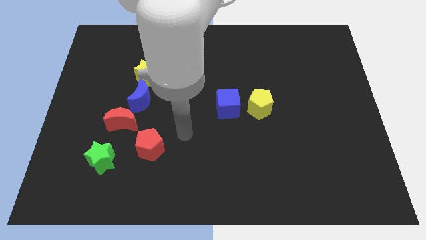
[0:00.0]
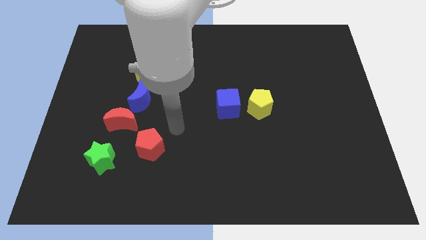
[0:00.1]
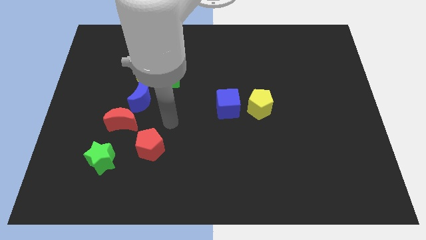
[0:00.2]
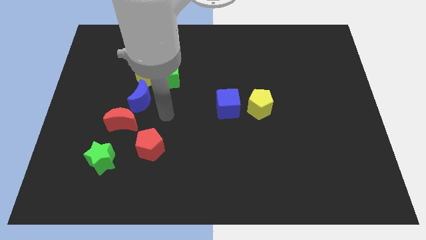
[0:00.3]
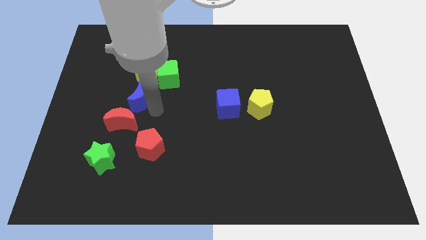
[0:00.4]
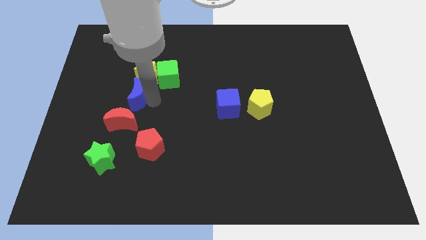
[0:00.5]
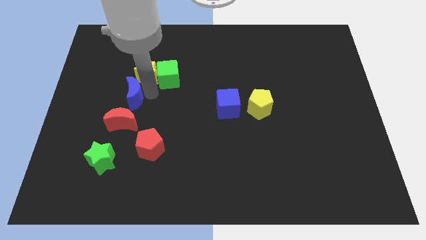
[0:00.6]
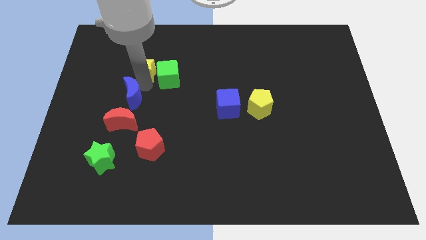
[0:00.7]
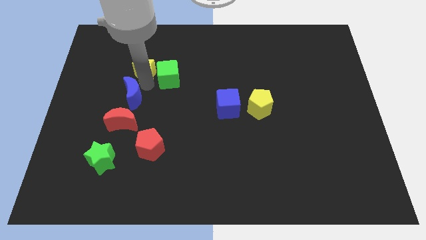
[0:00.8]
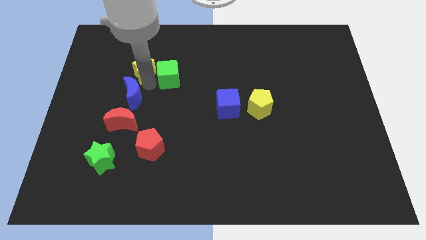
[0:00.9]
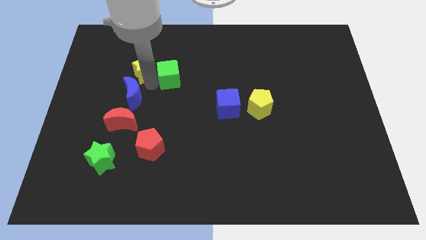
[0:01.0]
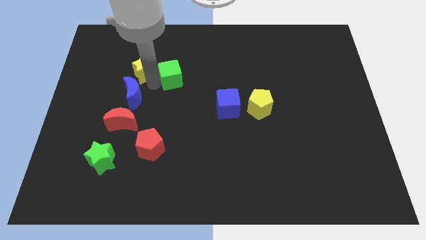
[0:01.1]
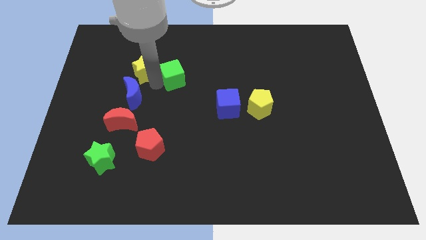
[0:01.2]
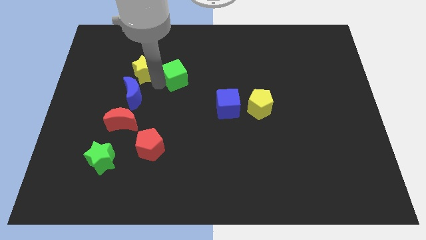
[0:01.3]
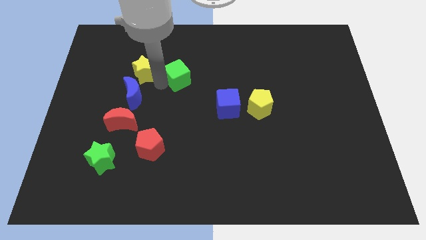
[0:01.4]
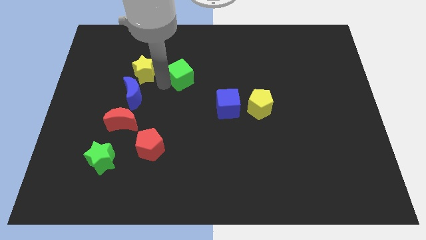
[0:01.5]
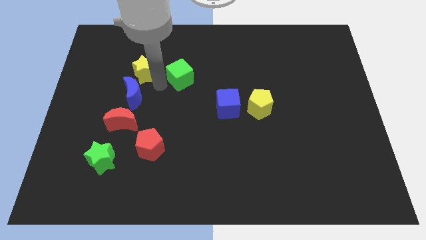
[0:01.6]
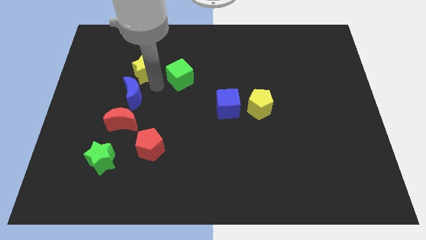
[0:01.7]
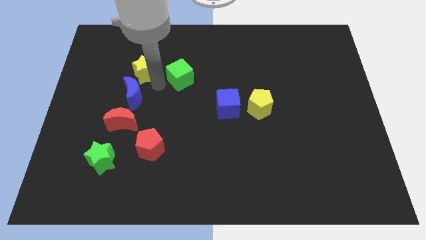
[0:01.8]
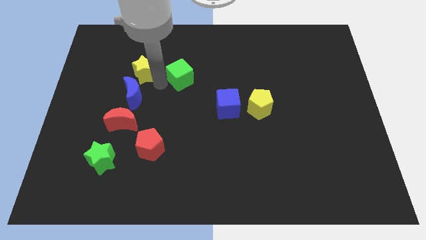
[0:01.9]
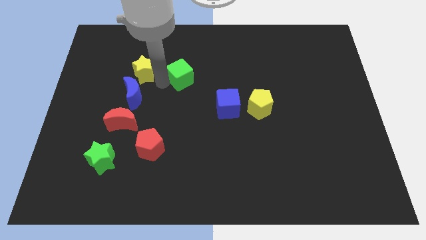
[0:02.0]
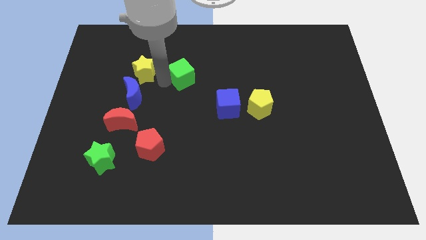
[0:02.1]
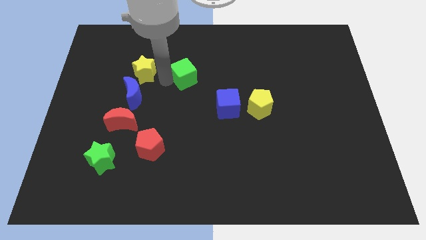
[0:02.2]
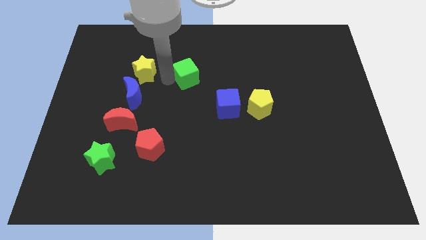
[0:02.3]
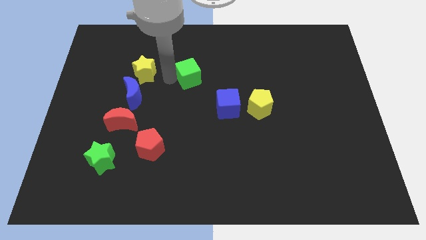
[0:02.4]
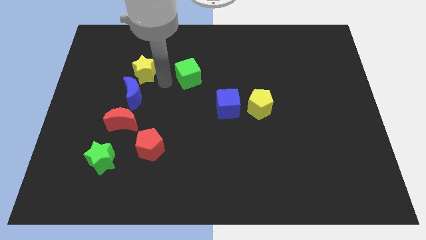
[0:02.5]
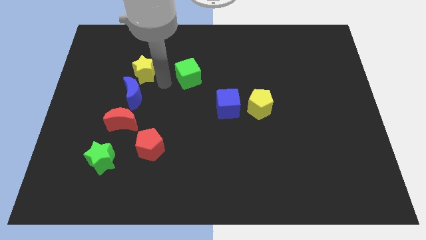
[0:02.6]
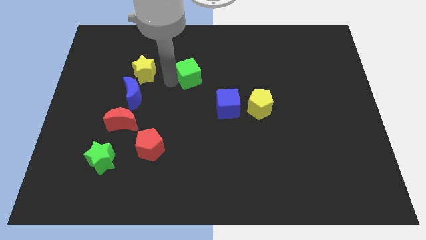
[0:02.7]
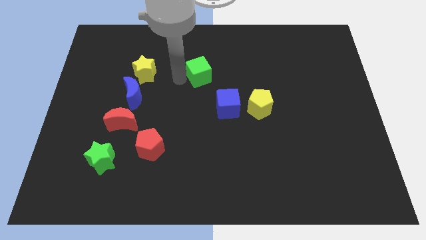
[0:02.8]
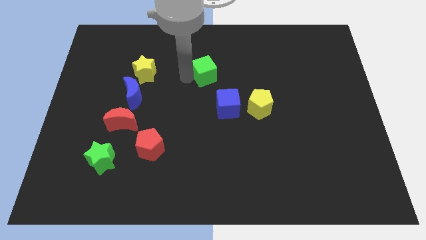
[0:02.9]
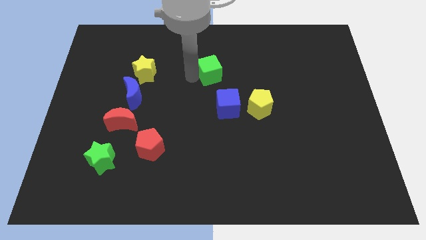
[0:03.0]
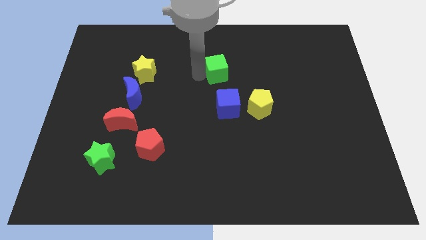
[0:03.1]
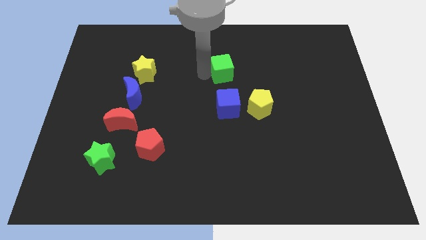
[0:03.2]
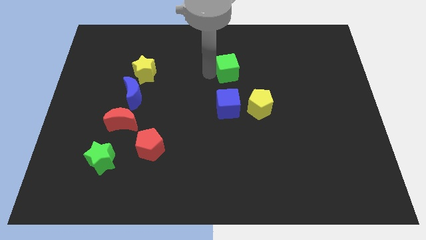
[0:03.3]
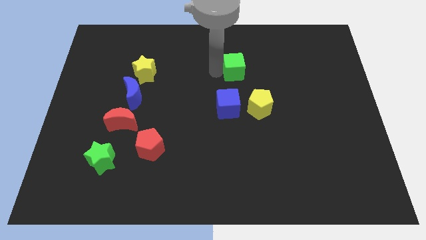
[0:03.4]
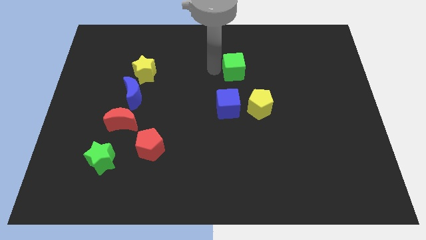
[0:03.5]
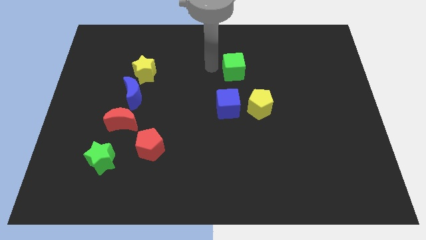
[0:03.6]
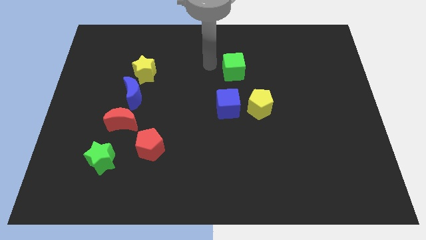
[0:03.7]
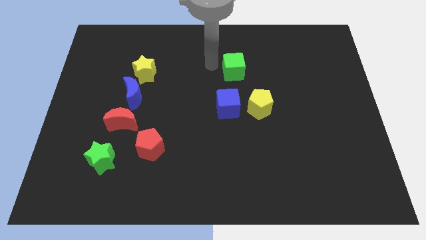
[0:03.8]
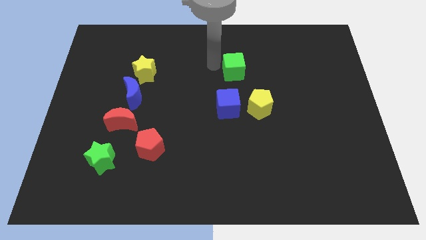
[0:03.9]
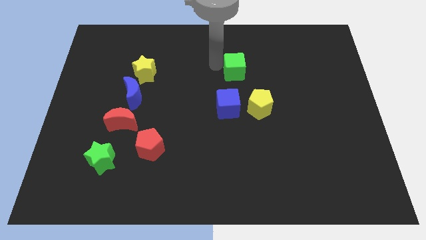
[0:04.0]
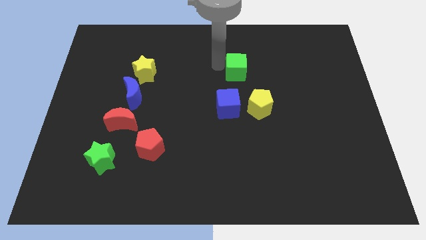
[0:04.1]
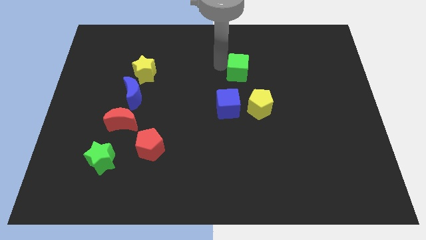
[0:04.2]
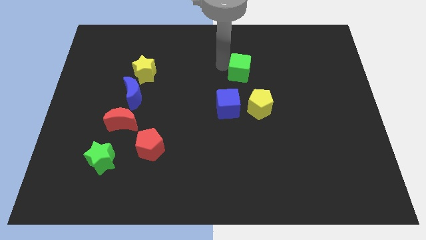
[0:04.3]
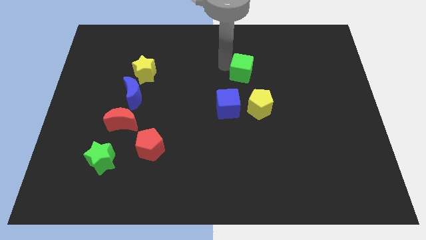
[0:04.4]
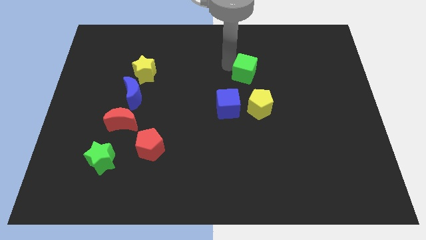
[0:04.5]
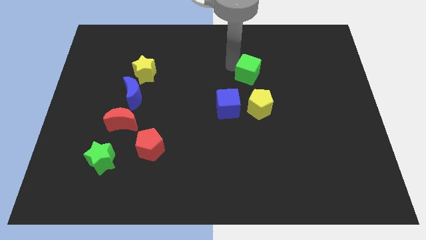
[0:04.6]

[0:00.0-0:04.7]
move the green cube to the right

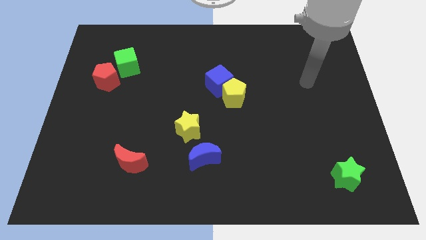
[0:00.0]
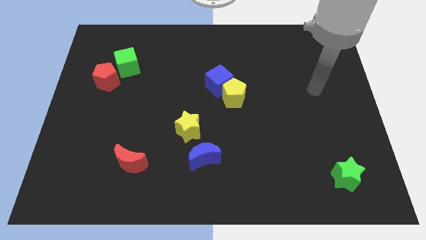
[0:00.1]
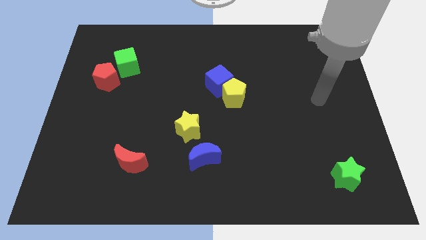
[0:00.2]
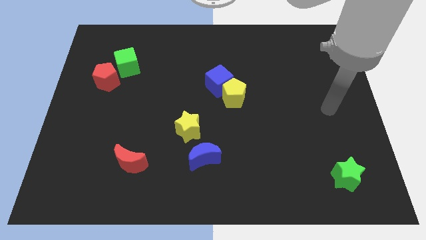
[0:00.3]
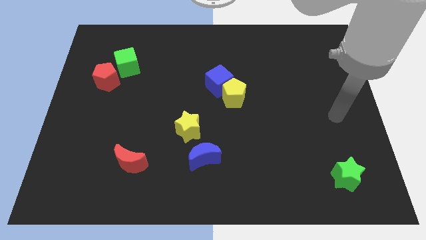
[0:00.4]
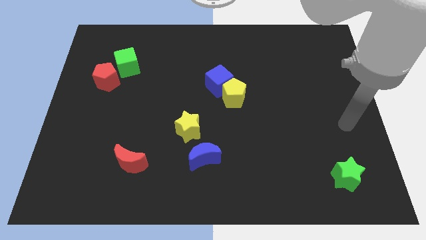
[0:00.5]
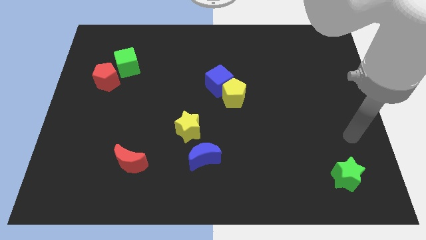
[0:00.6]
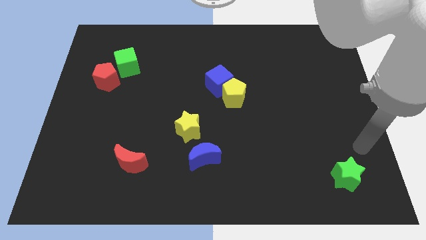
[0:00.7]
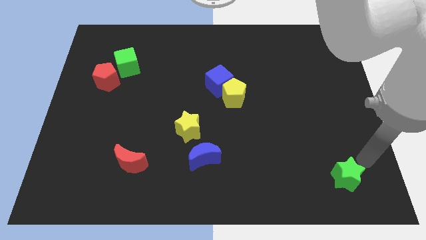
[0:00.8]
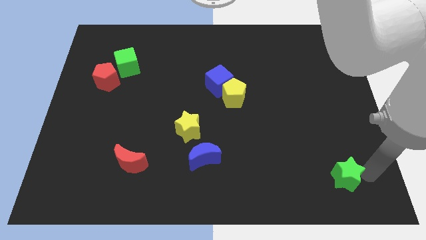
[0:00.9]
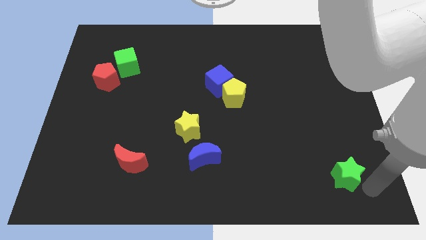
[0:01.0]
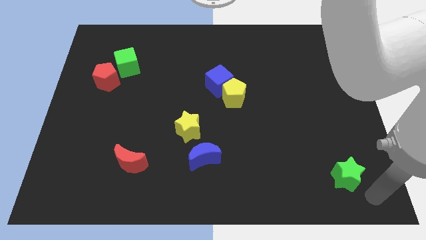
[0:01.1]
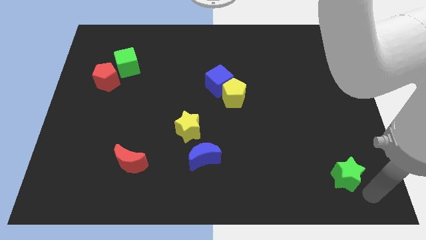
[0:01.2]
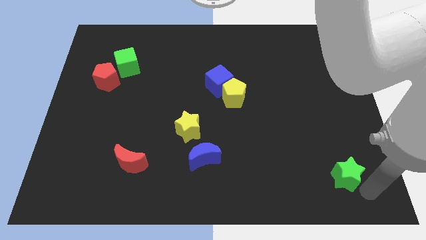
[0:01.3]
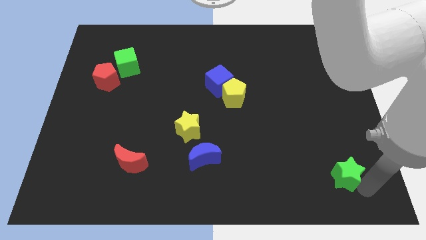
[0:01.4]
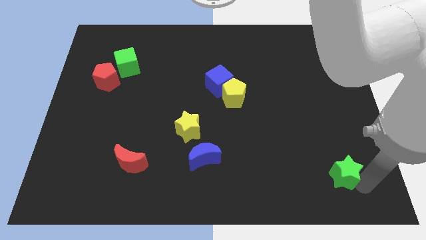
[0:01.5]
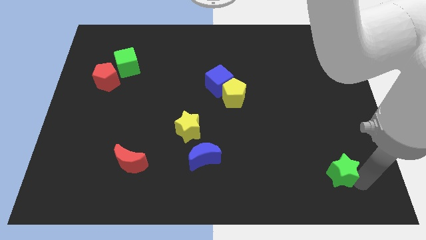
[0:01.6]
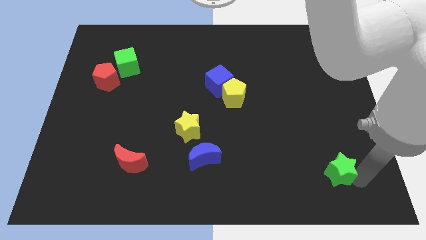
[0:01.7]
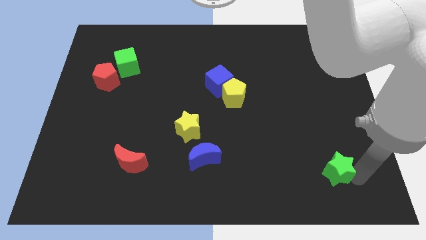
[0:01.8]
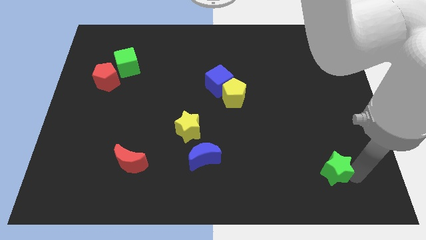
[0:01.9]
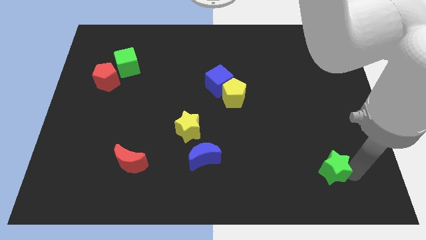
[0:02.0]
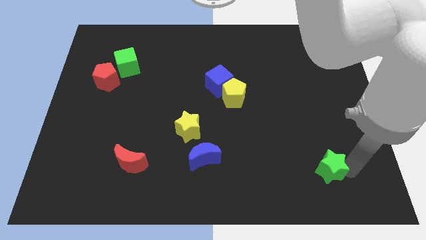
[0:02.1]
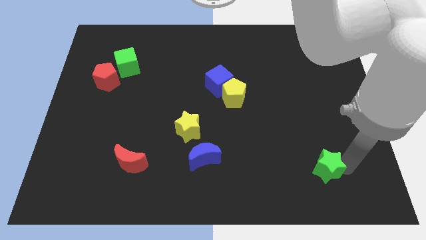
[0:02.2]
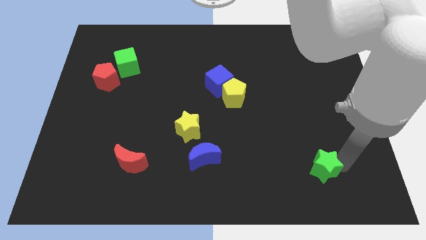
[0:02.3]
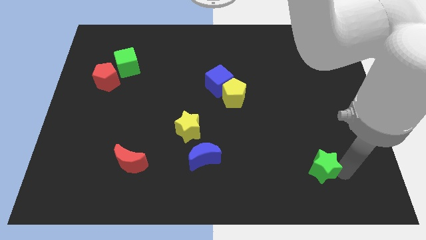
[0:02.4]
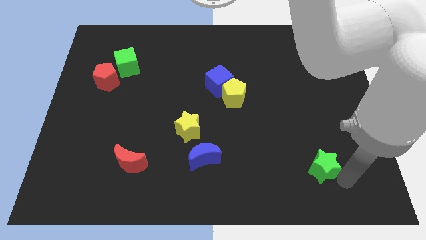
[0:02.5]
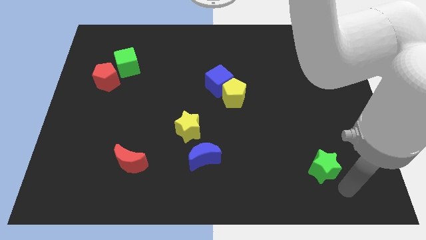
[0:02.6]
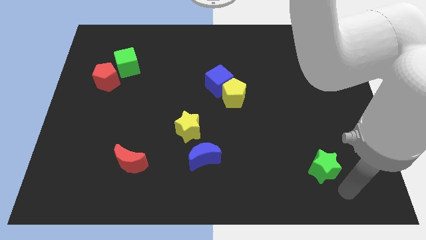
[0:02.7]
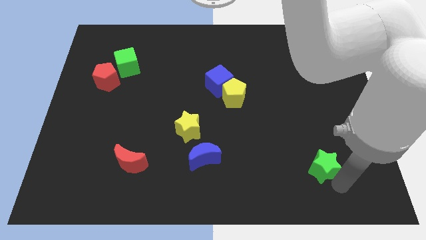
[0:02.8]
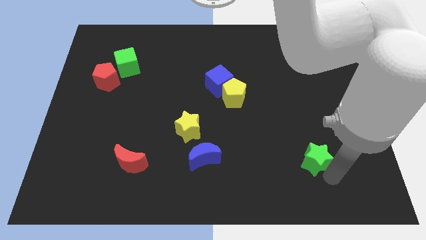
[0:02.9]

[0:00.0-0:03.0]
move the green star a bit upwards and then to the left

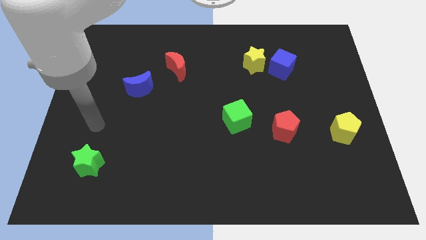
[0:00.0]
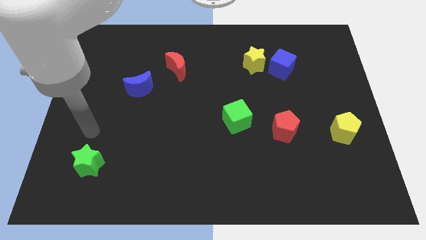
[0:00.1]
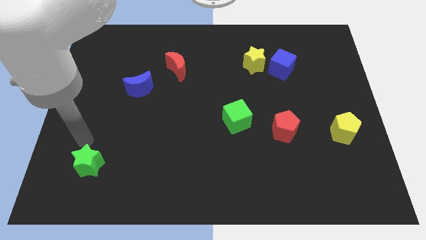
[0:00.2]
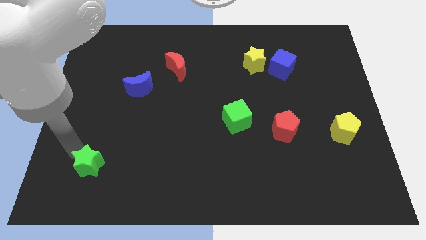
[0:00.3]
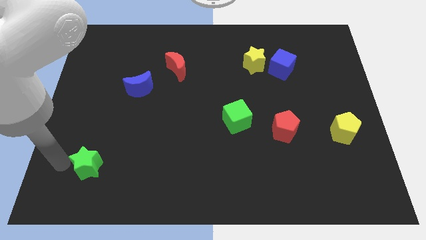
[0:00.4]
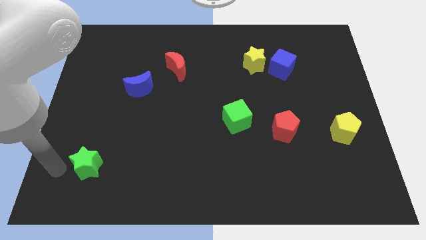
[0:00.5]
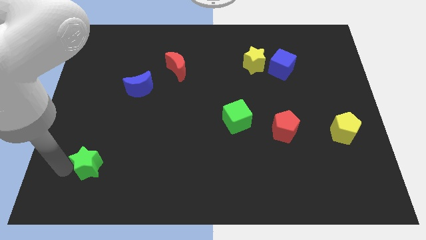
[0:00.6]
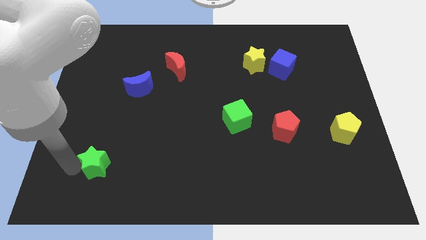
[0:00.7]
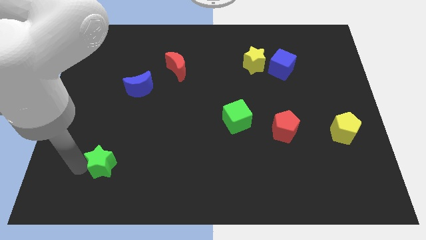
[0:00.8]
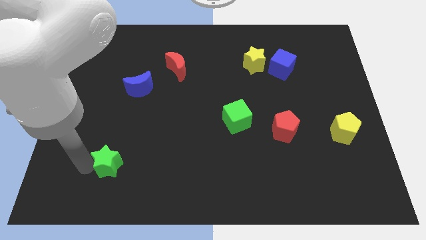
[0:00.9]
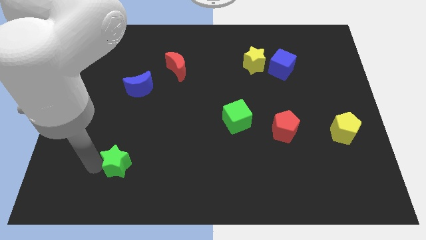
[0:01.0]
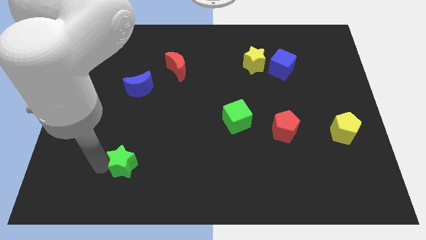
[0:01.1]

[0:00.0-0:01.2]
push the green star to the right a little
